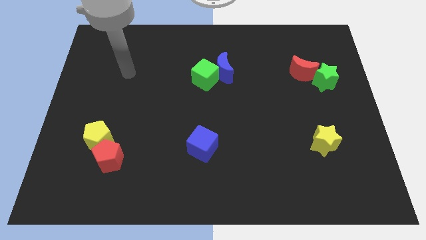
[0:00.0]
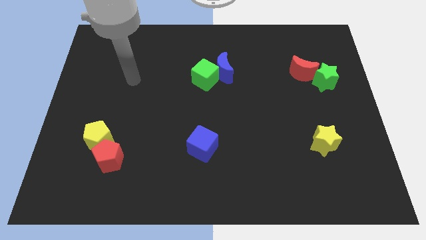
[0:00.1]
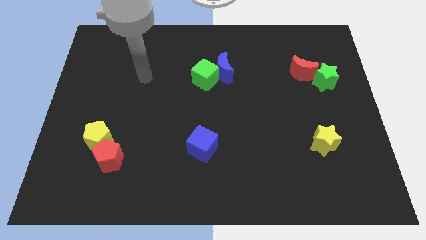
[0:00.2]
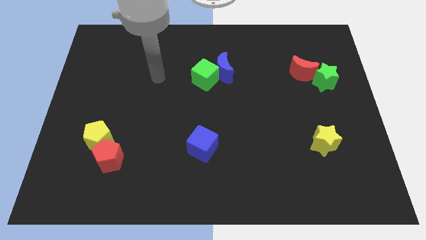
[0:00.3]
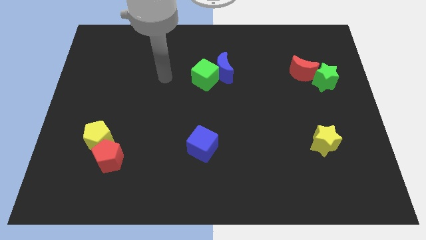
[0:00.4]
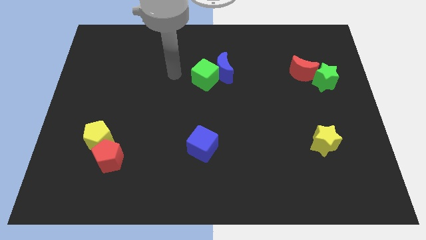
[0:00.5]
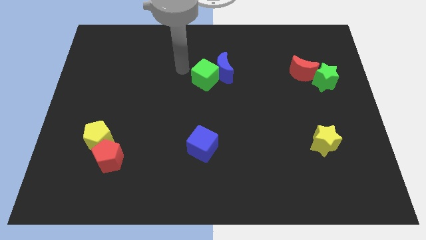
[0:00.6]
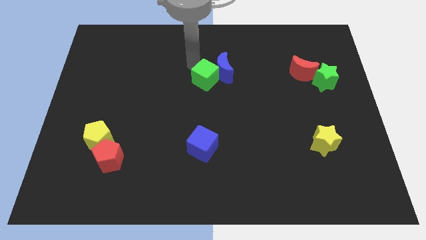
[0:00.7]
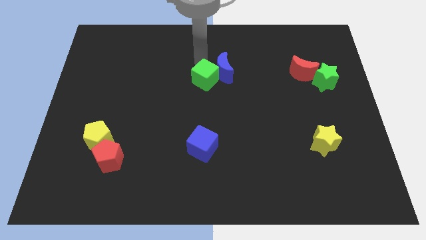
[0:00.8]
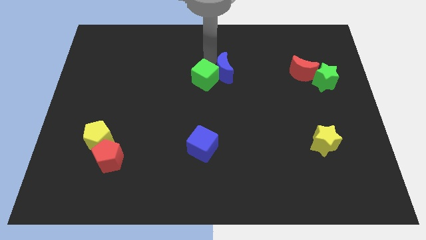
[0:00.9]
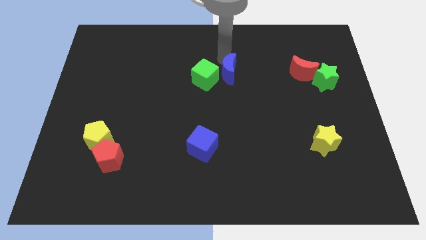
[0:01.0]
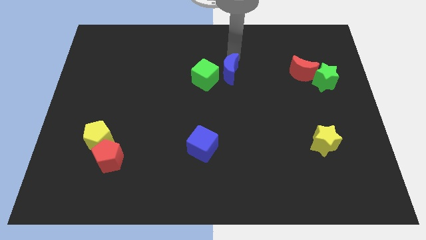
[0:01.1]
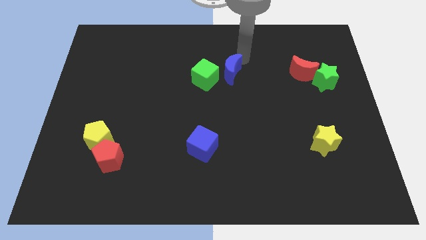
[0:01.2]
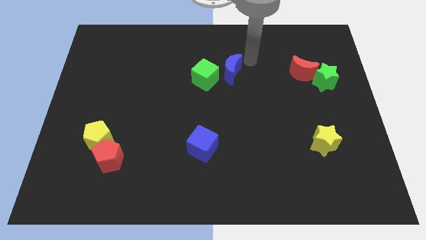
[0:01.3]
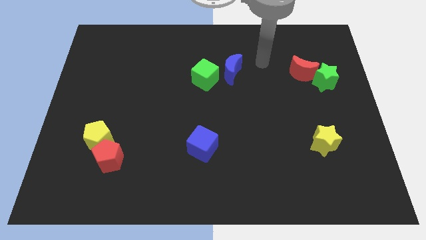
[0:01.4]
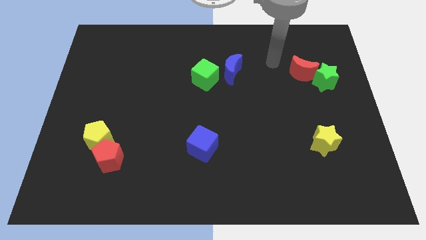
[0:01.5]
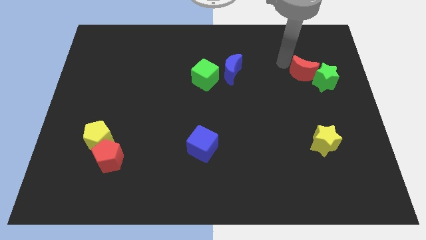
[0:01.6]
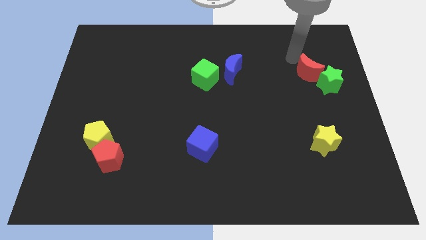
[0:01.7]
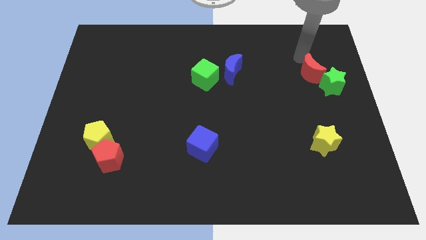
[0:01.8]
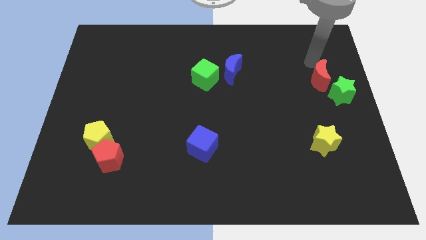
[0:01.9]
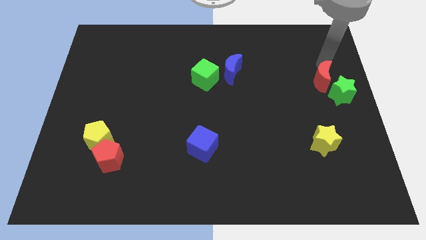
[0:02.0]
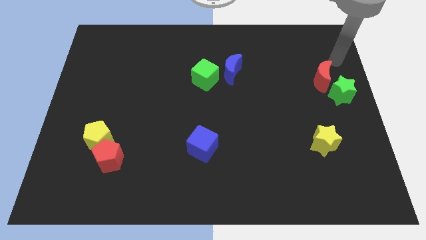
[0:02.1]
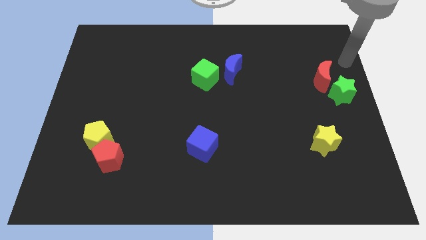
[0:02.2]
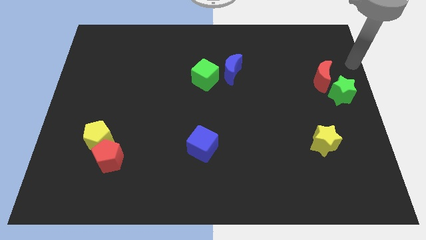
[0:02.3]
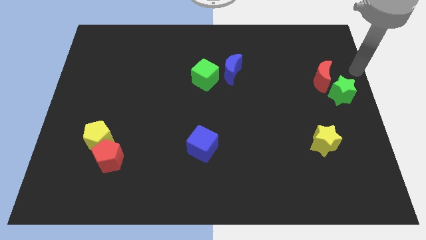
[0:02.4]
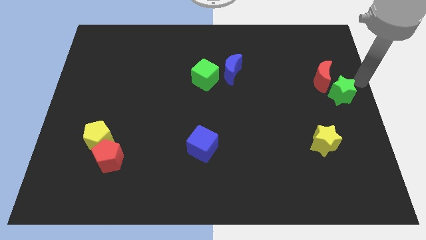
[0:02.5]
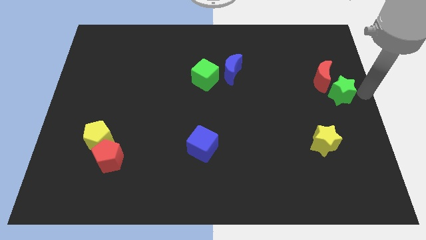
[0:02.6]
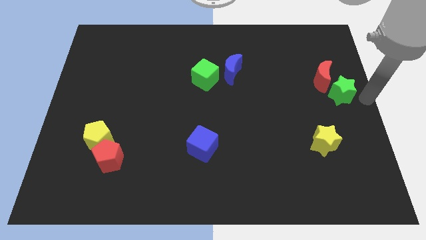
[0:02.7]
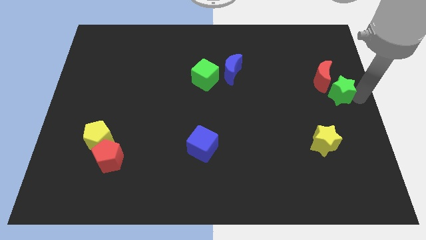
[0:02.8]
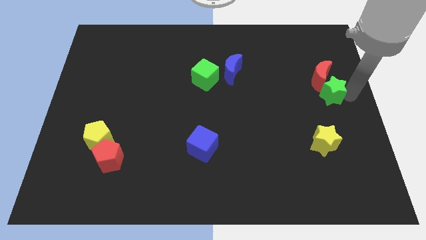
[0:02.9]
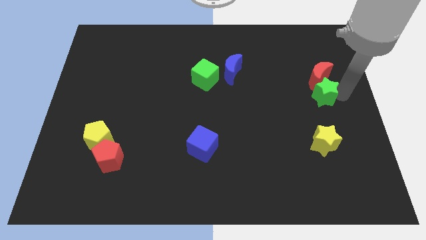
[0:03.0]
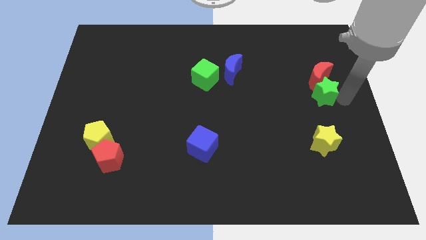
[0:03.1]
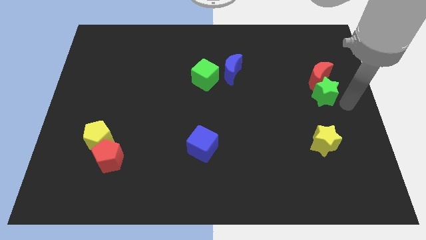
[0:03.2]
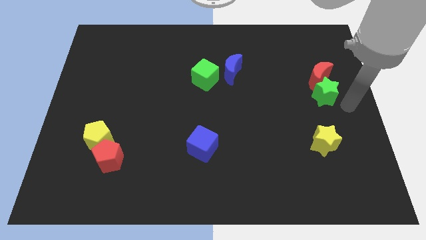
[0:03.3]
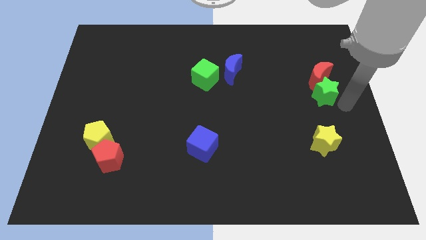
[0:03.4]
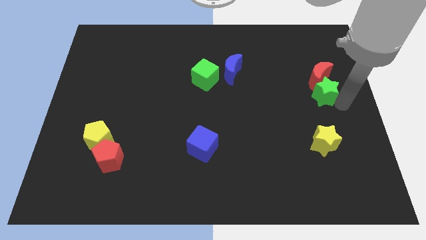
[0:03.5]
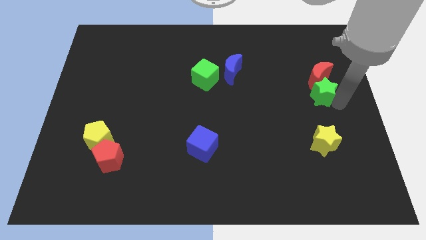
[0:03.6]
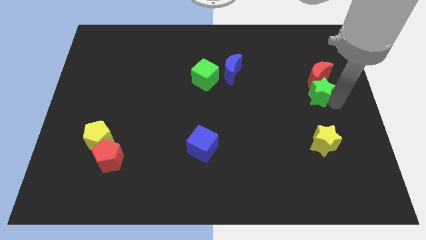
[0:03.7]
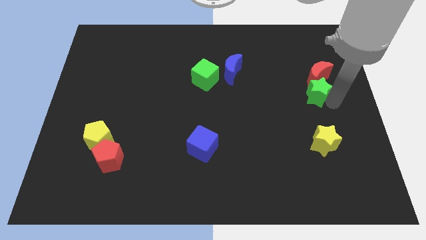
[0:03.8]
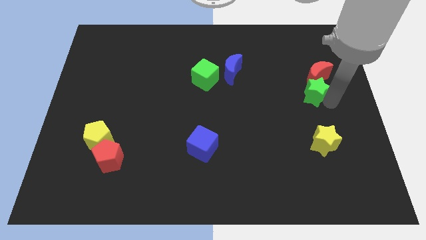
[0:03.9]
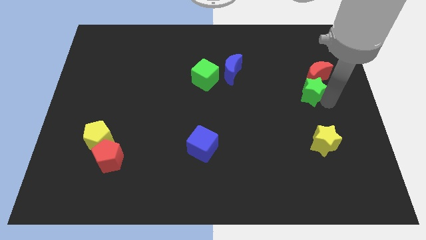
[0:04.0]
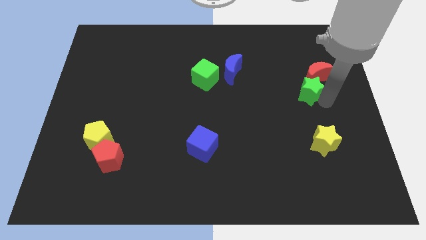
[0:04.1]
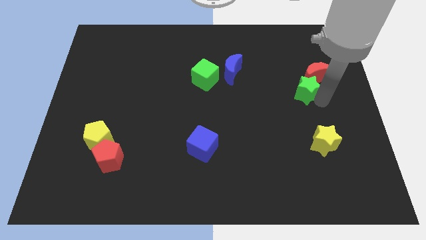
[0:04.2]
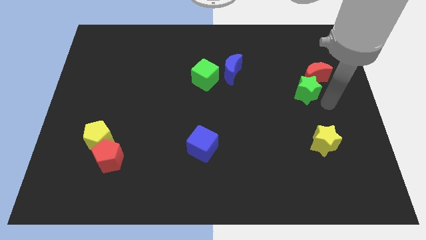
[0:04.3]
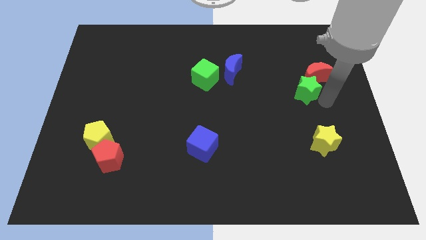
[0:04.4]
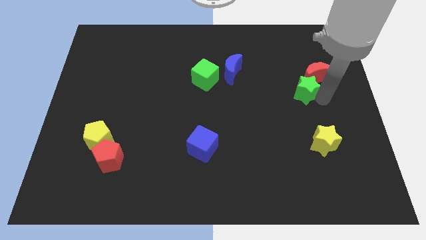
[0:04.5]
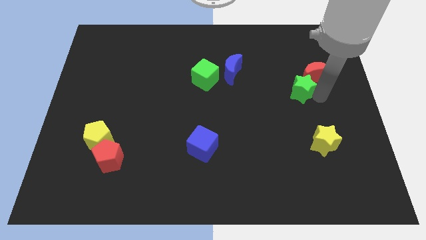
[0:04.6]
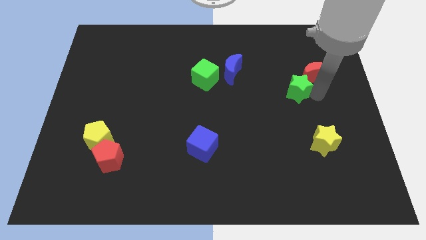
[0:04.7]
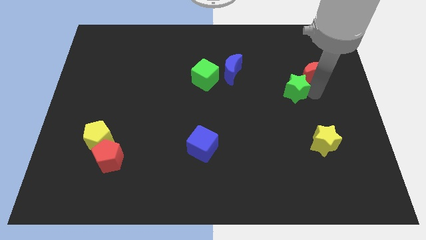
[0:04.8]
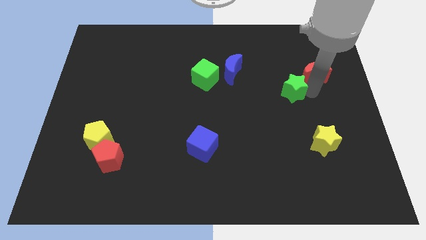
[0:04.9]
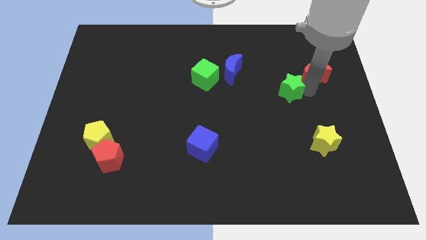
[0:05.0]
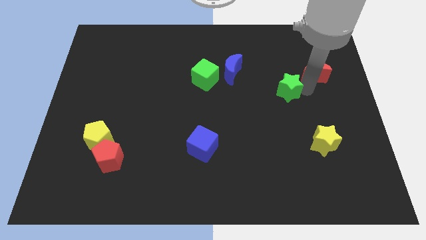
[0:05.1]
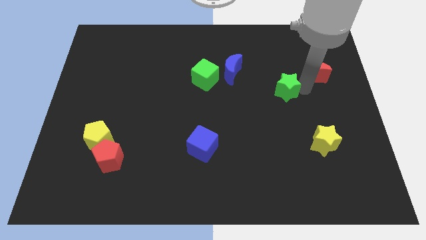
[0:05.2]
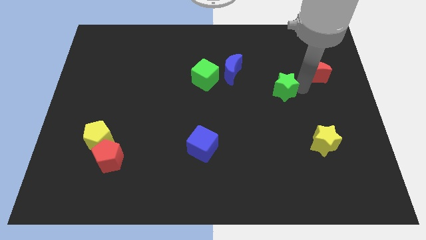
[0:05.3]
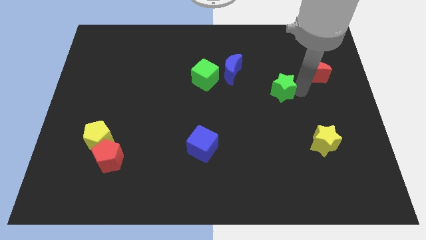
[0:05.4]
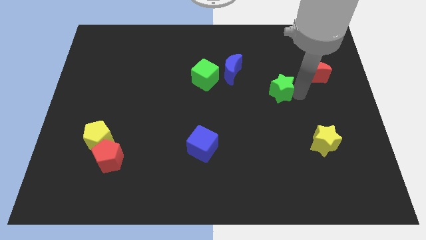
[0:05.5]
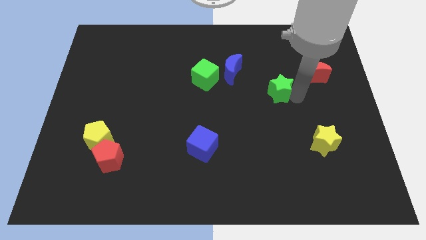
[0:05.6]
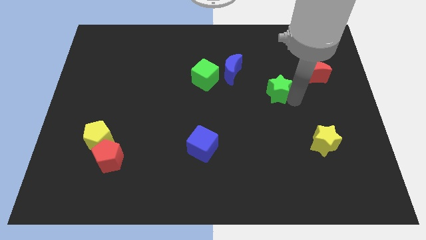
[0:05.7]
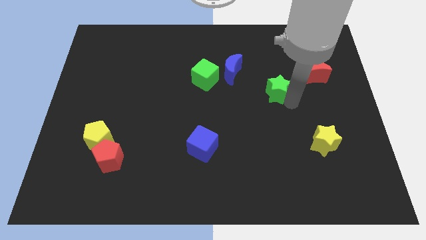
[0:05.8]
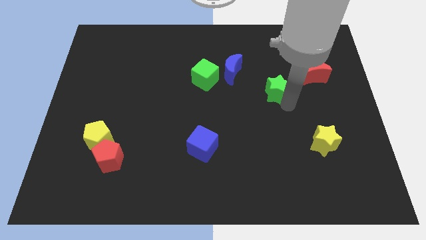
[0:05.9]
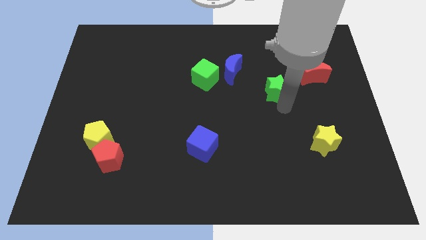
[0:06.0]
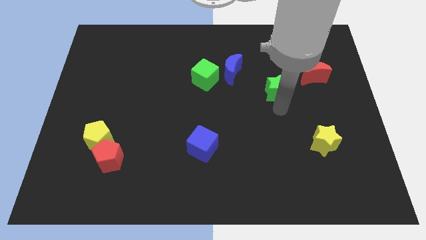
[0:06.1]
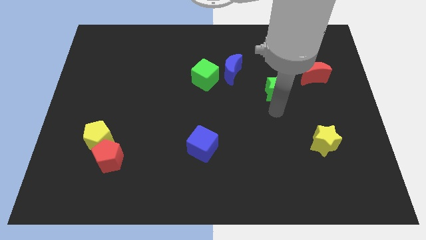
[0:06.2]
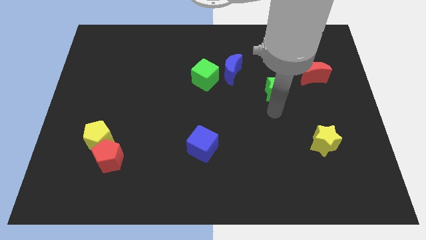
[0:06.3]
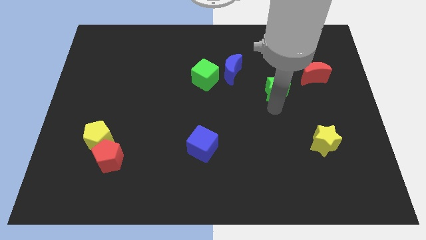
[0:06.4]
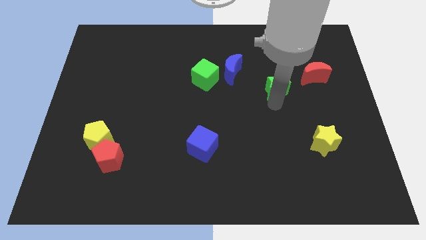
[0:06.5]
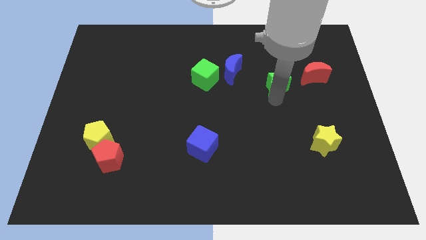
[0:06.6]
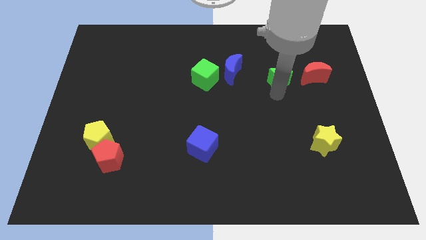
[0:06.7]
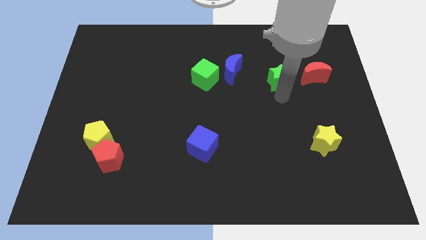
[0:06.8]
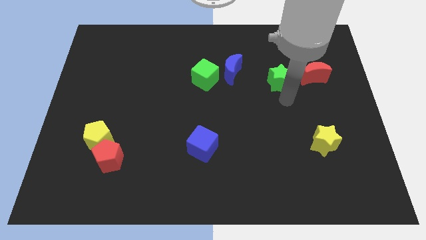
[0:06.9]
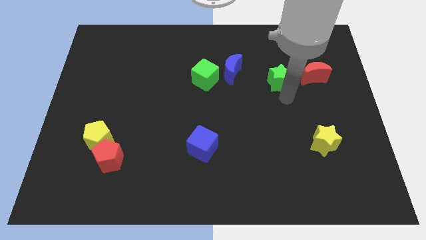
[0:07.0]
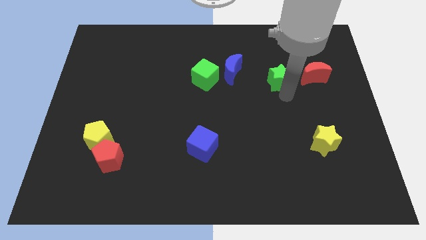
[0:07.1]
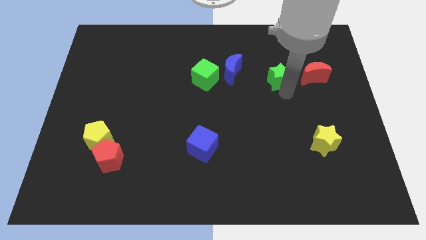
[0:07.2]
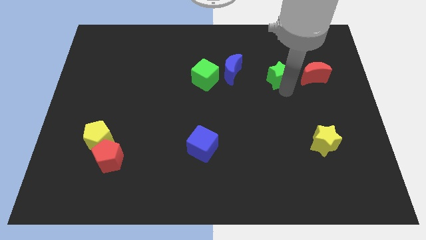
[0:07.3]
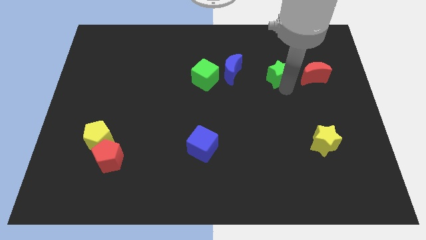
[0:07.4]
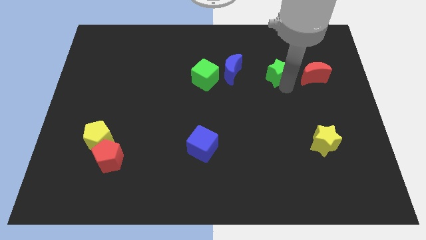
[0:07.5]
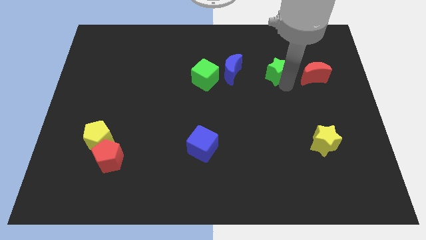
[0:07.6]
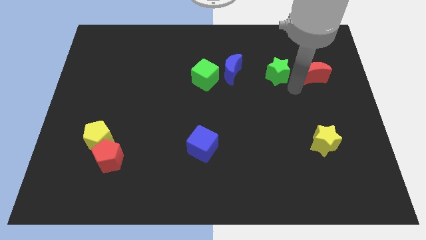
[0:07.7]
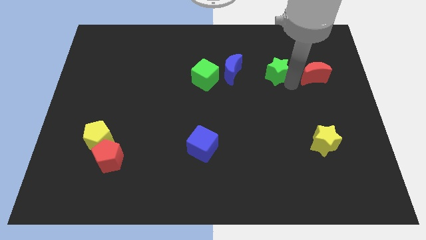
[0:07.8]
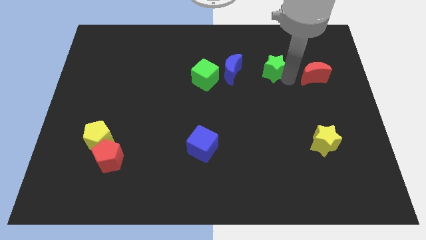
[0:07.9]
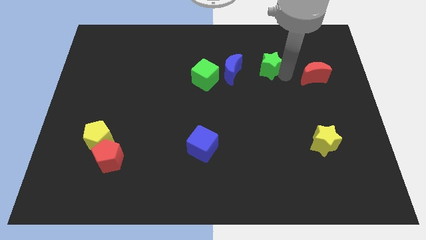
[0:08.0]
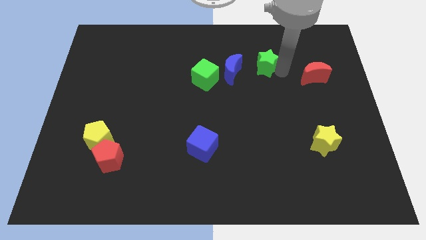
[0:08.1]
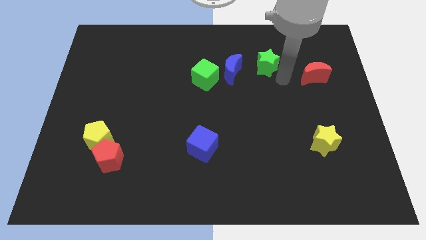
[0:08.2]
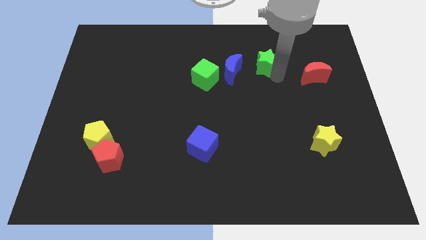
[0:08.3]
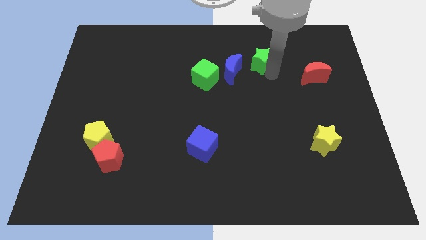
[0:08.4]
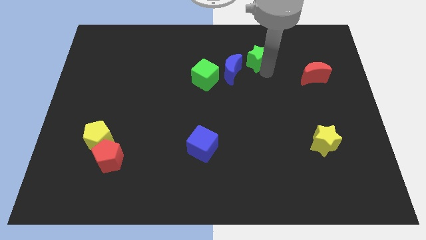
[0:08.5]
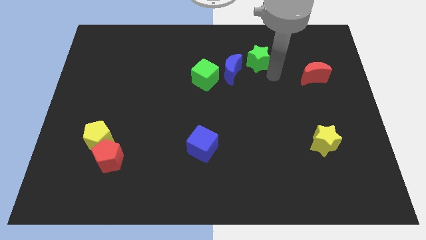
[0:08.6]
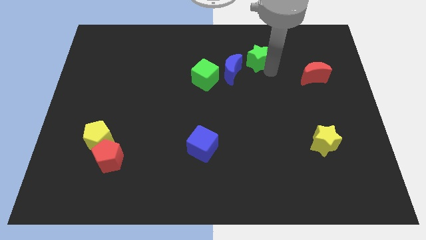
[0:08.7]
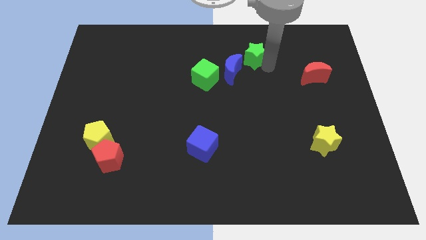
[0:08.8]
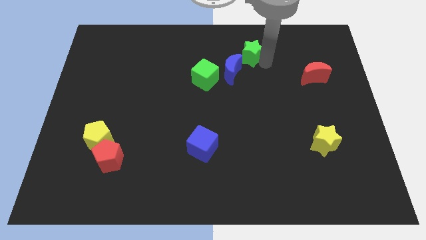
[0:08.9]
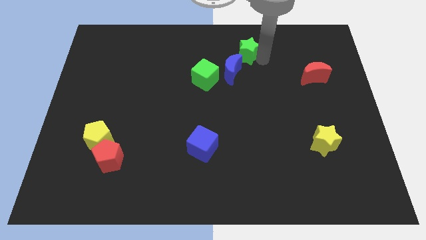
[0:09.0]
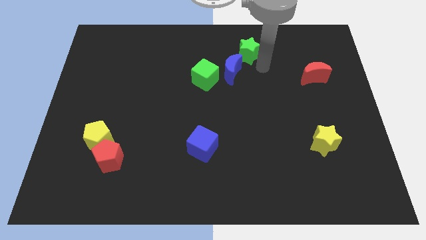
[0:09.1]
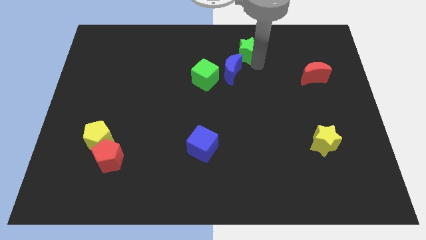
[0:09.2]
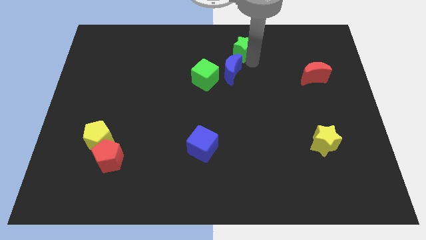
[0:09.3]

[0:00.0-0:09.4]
move the green star to the top side
